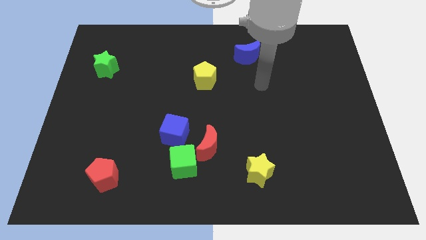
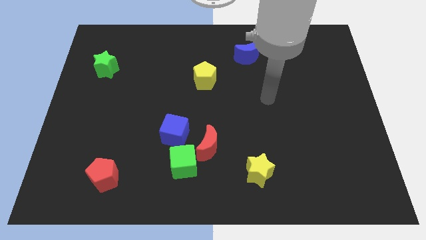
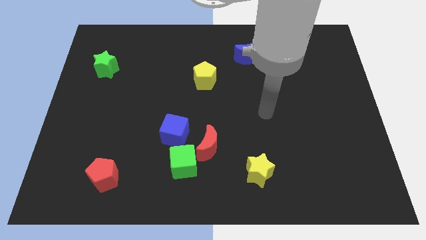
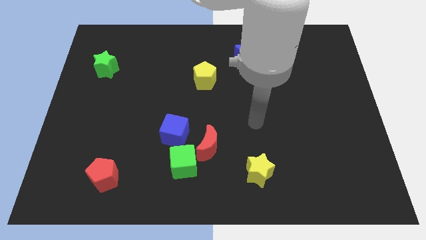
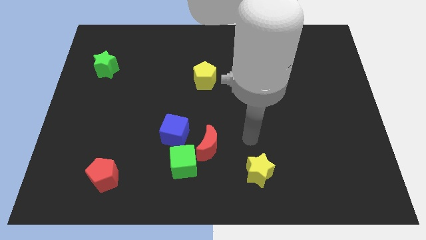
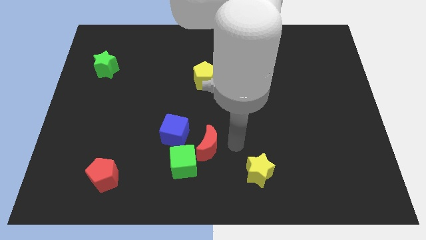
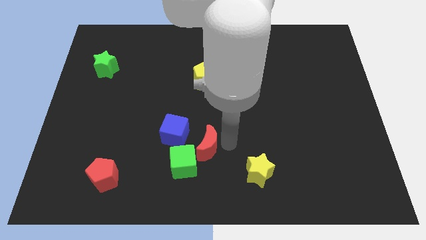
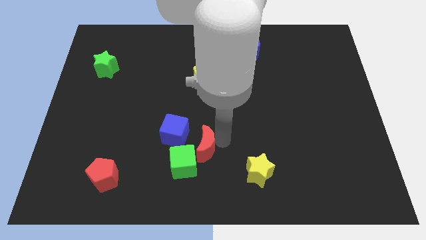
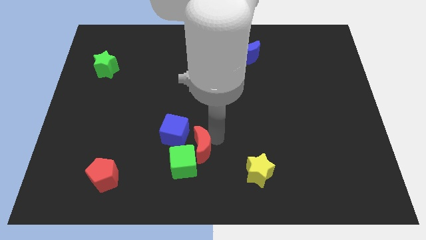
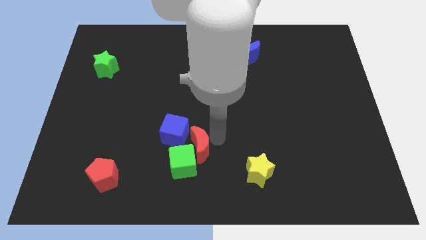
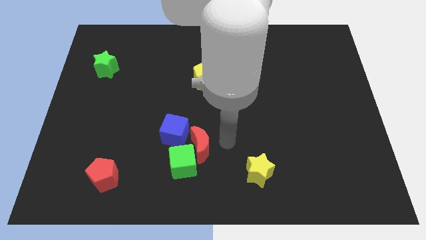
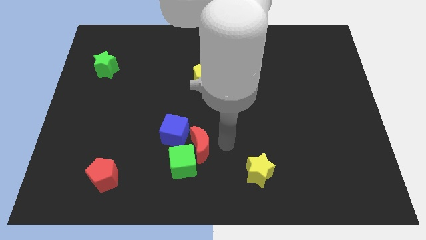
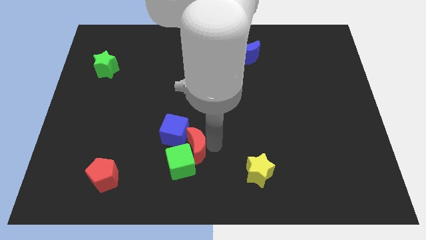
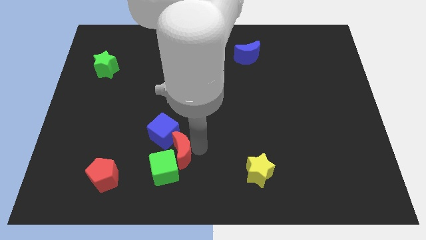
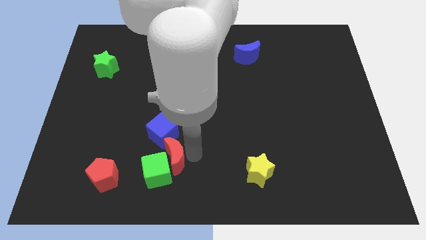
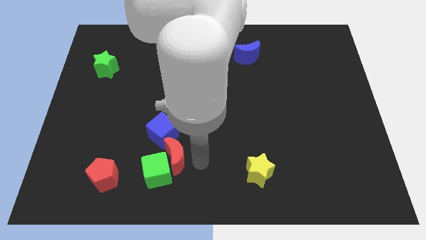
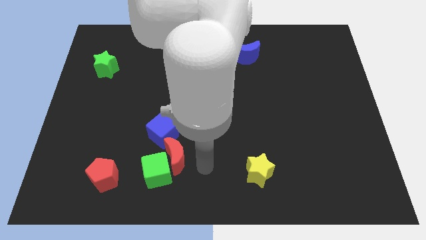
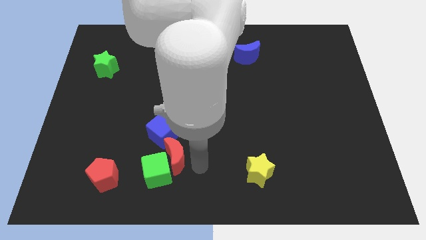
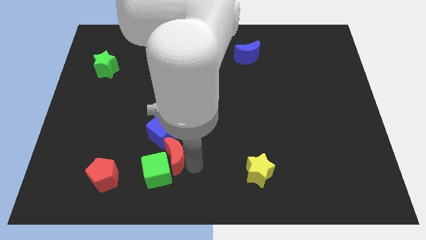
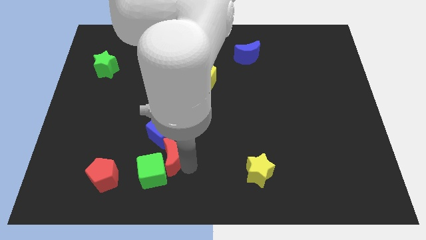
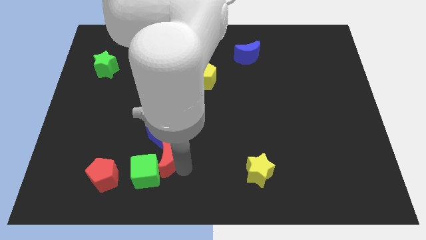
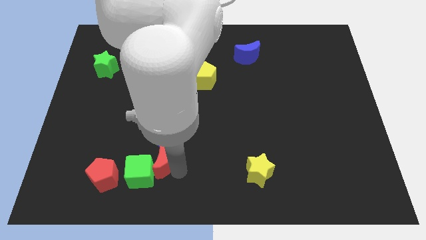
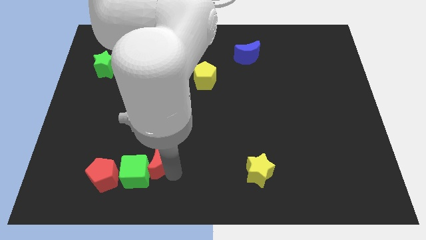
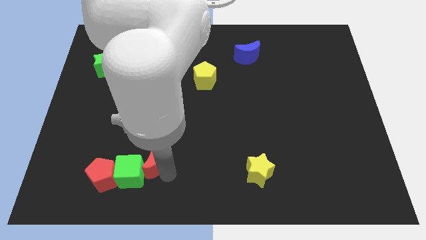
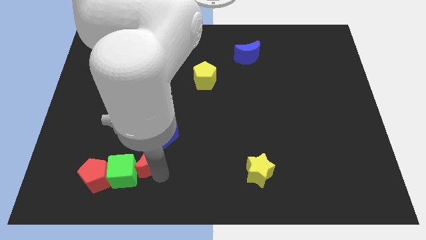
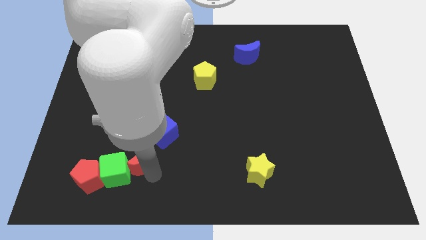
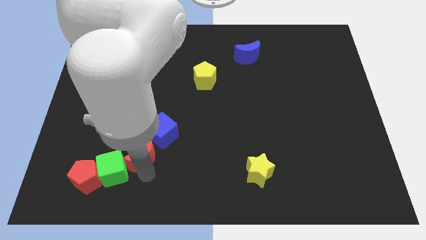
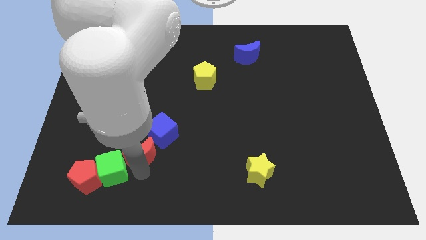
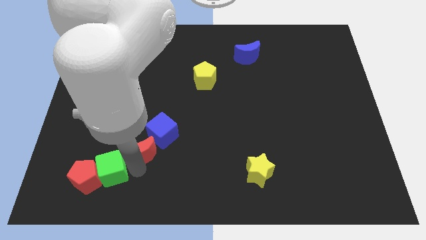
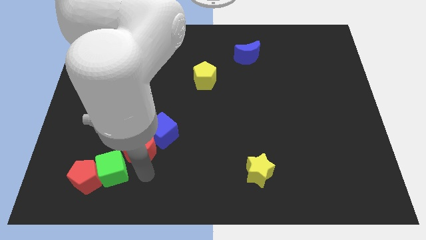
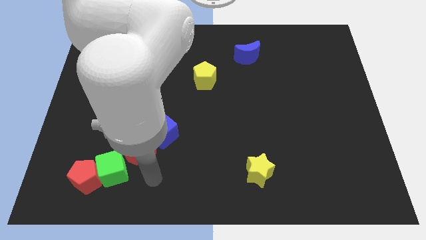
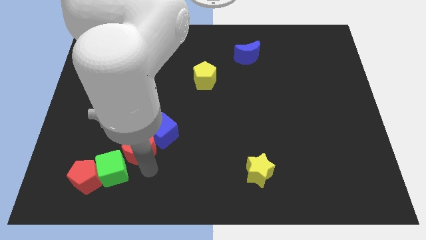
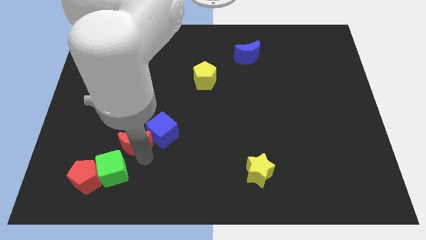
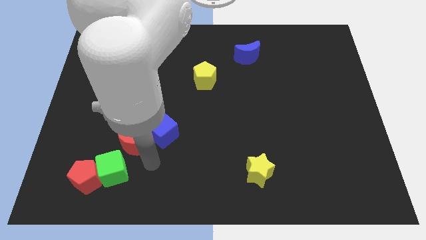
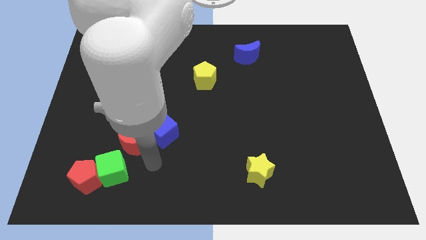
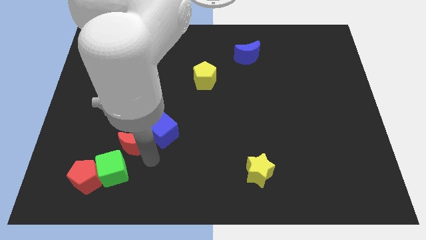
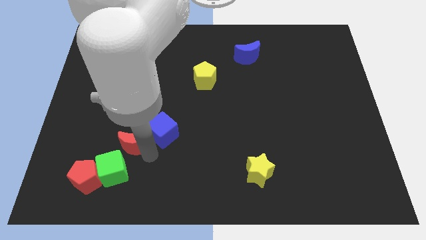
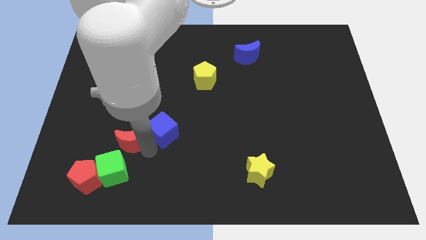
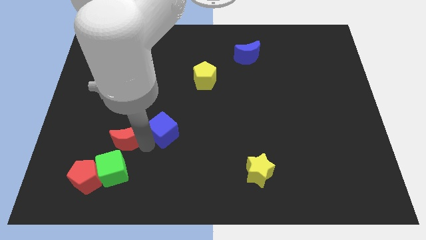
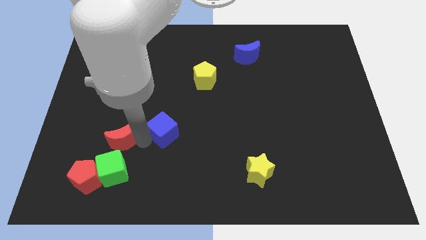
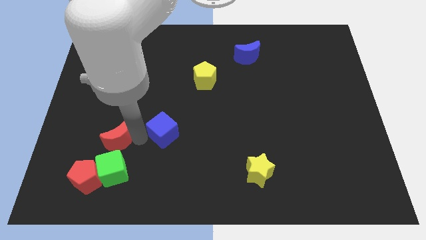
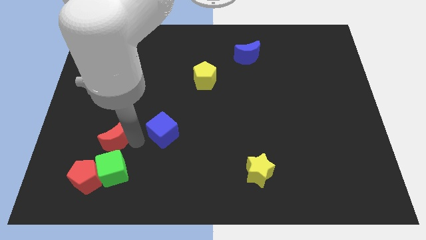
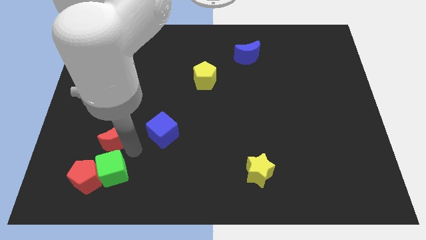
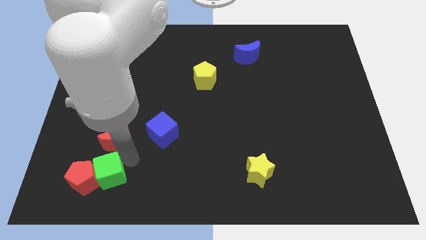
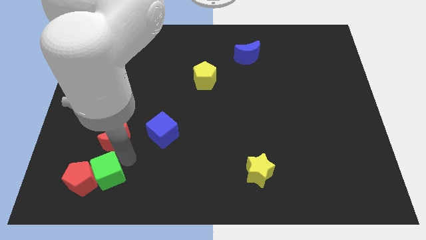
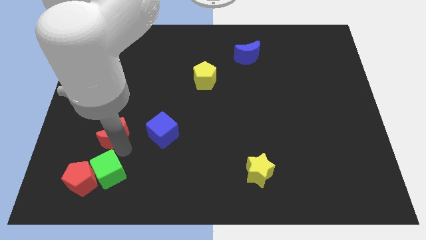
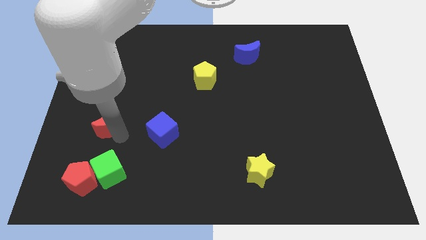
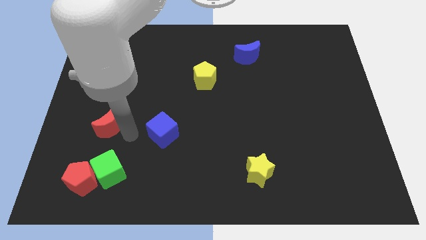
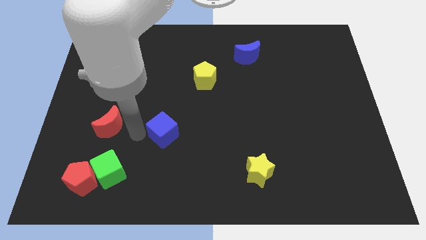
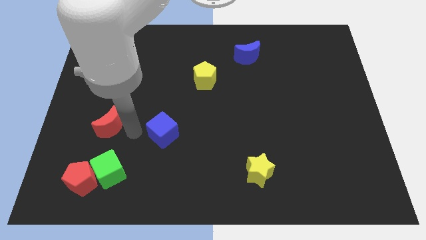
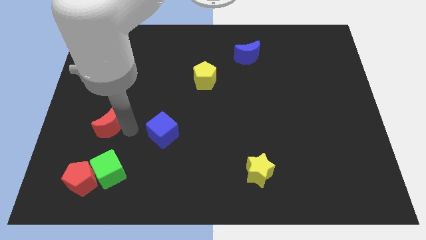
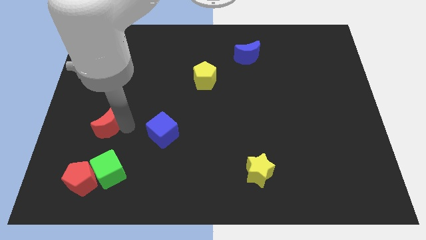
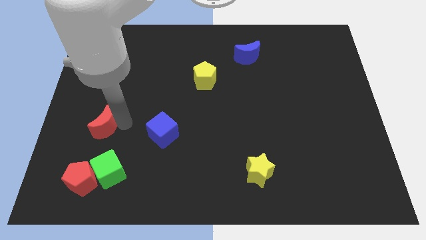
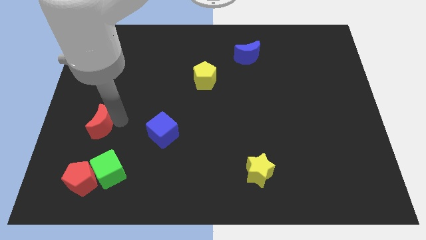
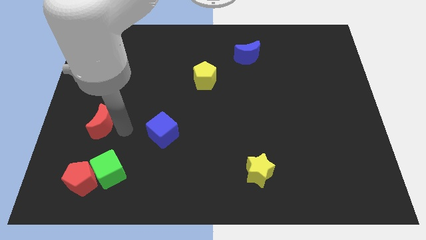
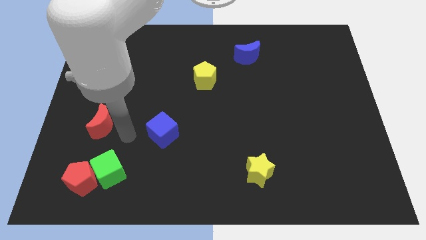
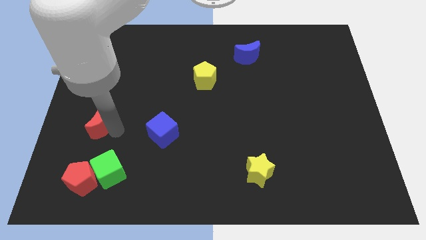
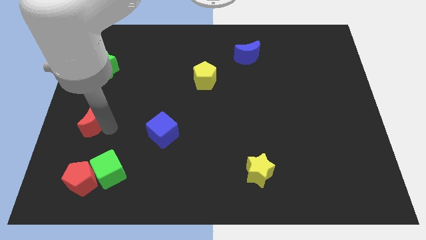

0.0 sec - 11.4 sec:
move the red moon to the left side of the board
